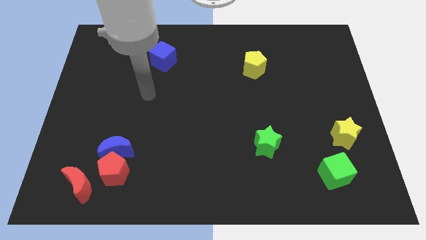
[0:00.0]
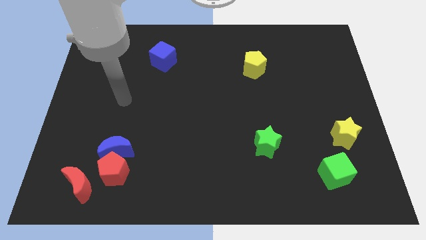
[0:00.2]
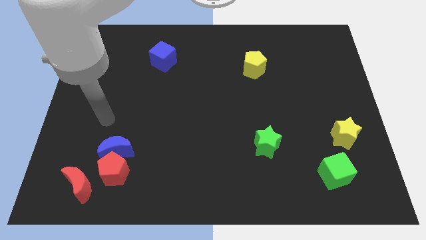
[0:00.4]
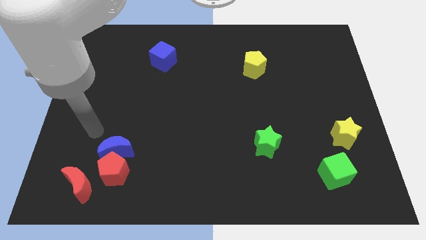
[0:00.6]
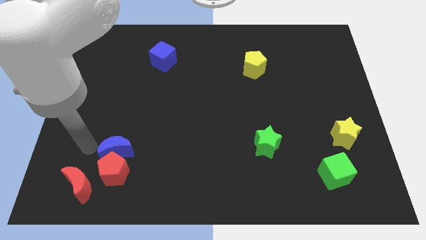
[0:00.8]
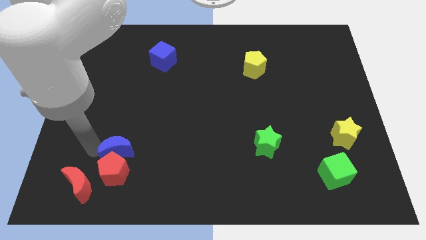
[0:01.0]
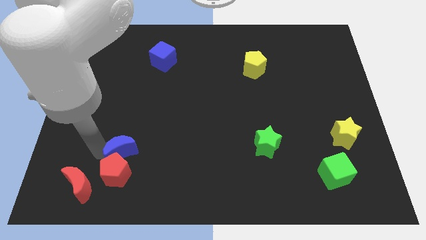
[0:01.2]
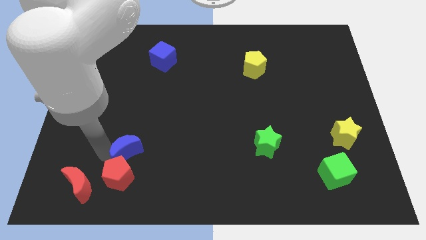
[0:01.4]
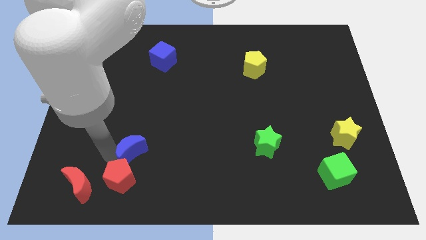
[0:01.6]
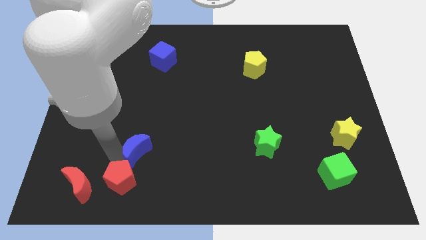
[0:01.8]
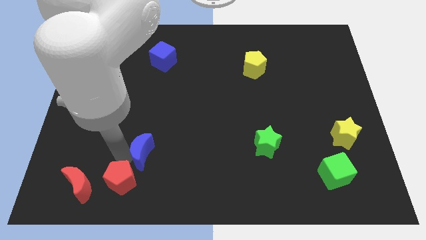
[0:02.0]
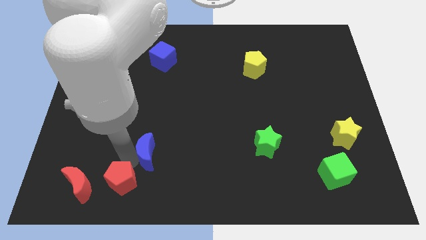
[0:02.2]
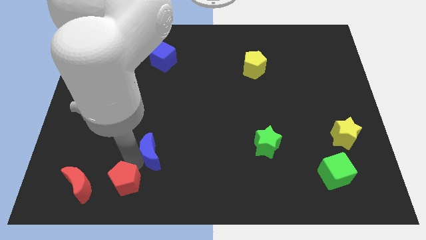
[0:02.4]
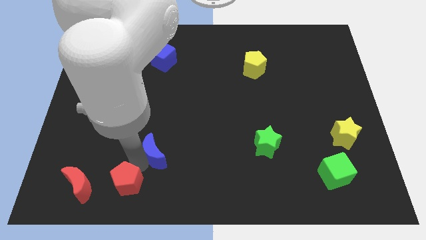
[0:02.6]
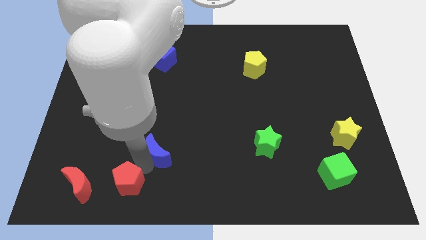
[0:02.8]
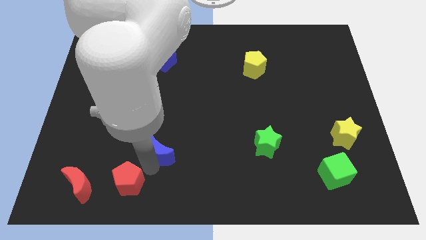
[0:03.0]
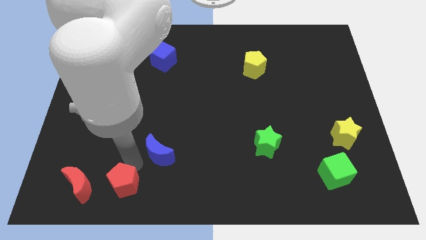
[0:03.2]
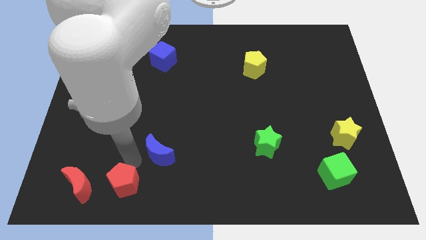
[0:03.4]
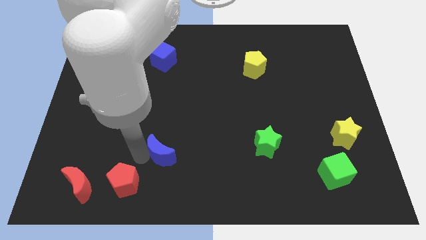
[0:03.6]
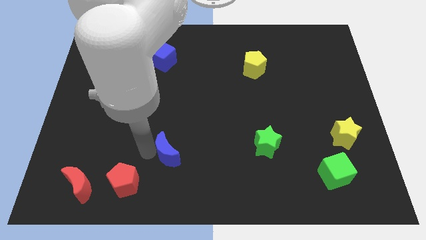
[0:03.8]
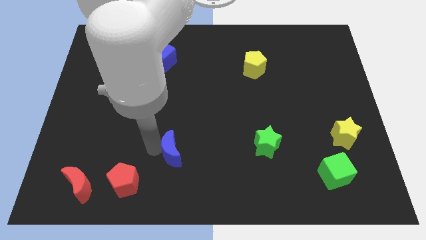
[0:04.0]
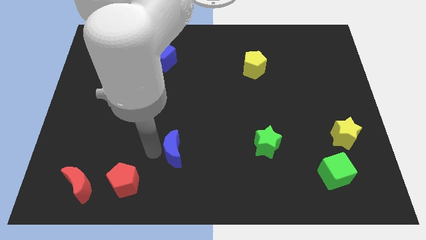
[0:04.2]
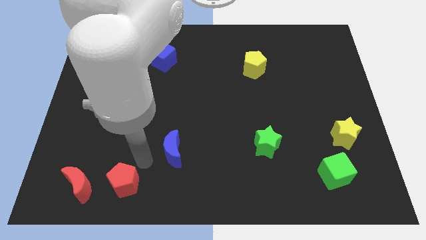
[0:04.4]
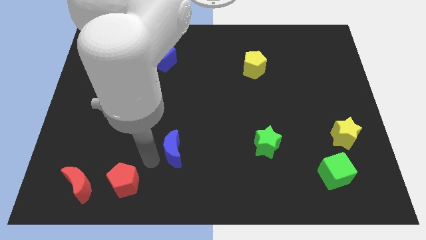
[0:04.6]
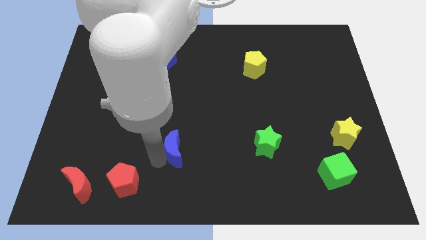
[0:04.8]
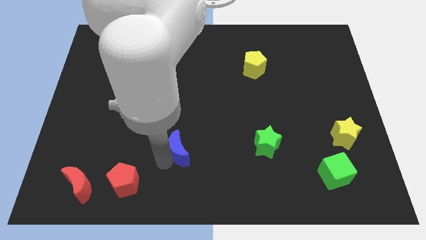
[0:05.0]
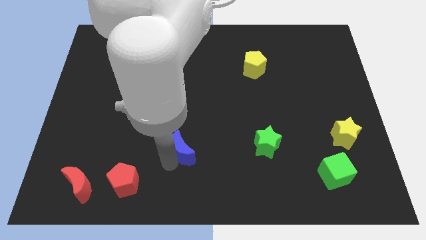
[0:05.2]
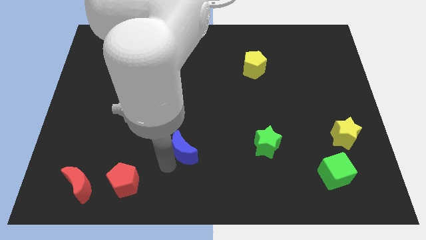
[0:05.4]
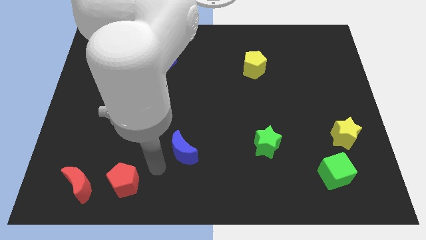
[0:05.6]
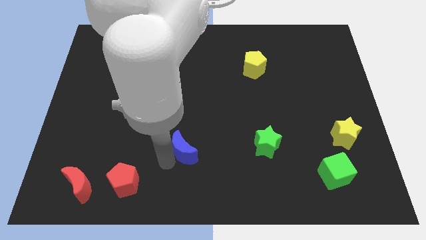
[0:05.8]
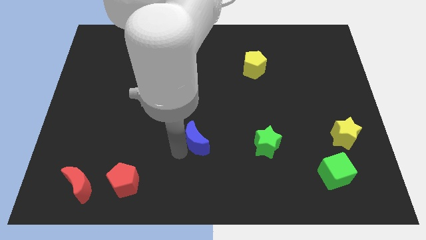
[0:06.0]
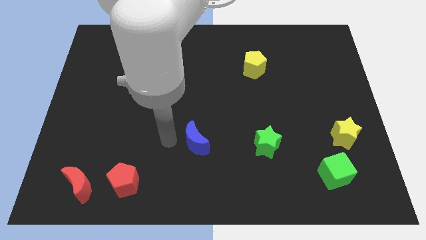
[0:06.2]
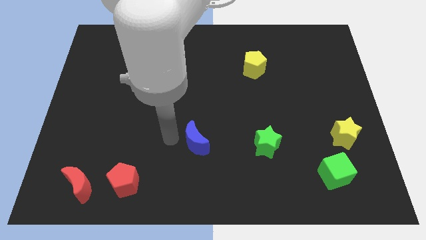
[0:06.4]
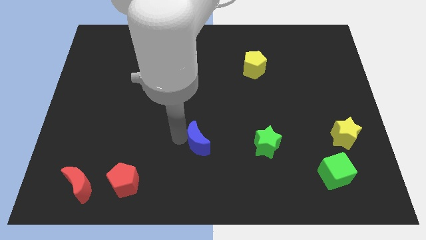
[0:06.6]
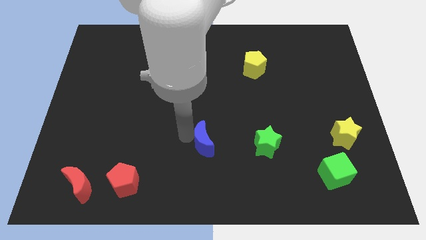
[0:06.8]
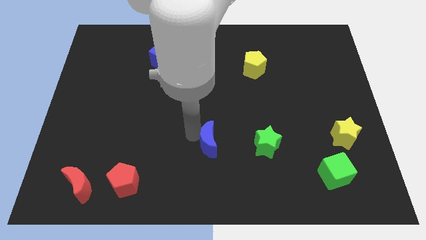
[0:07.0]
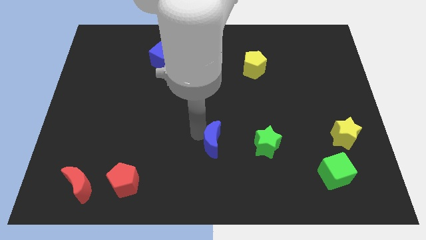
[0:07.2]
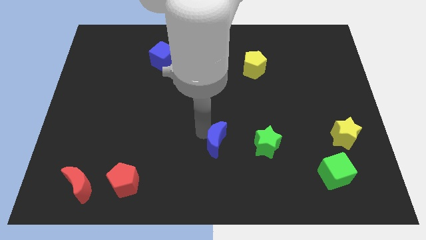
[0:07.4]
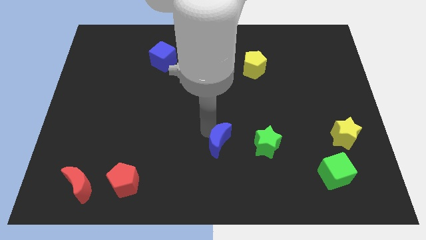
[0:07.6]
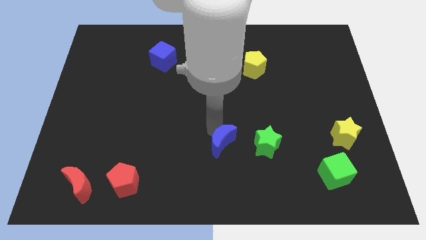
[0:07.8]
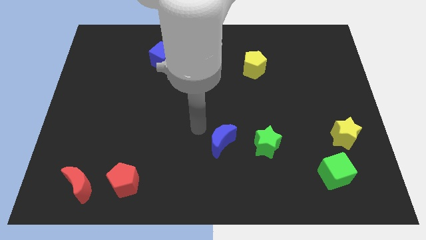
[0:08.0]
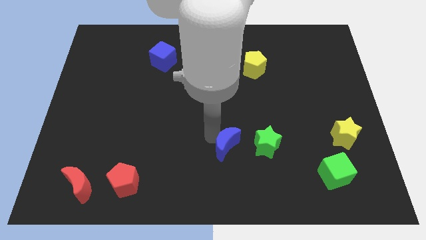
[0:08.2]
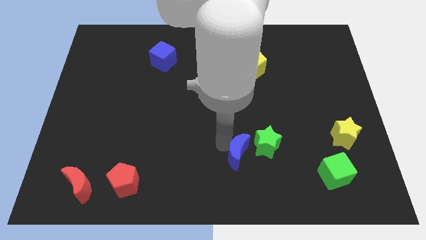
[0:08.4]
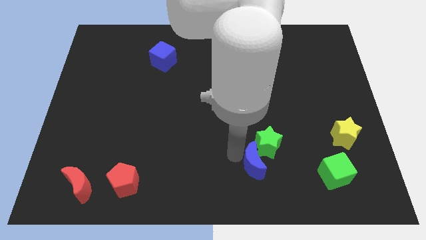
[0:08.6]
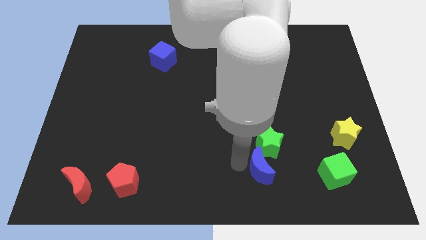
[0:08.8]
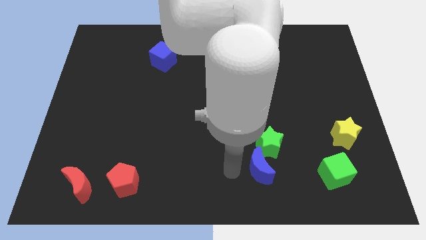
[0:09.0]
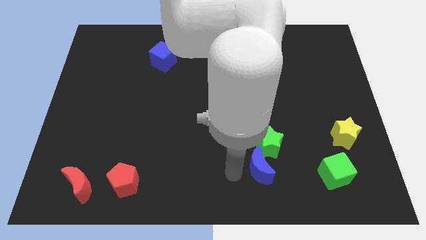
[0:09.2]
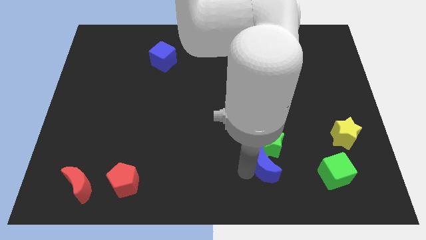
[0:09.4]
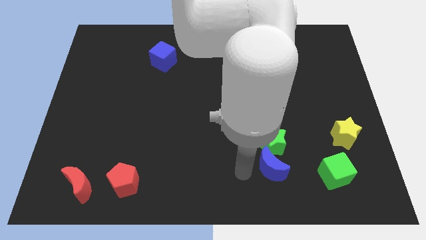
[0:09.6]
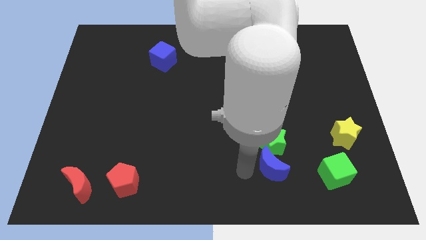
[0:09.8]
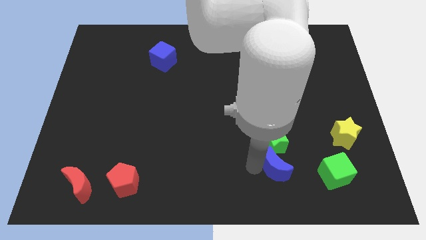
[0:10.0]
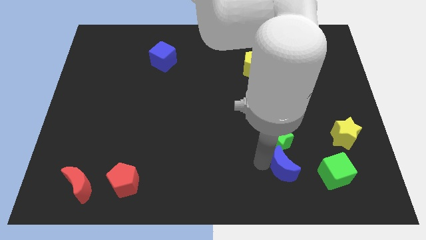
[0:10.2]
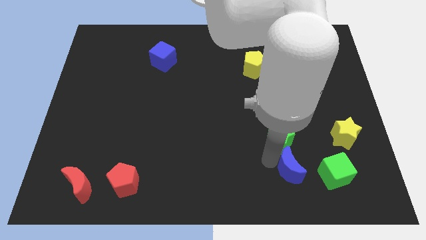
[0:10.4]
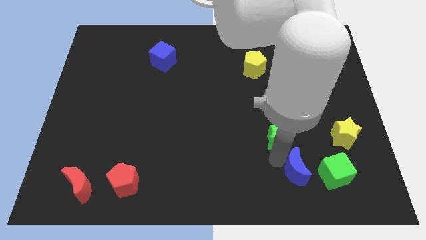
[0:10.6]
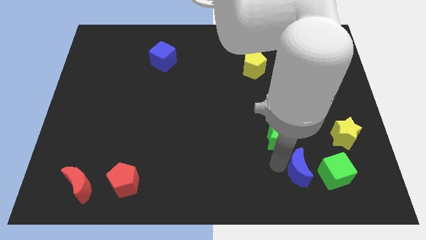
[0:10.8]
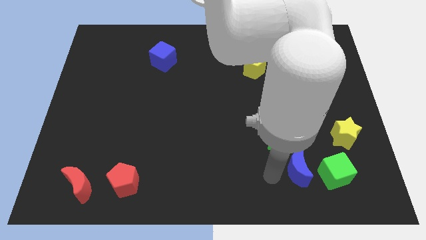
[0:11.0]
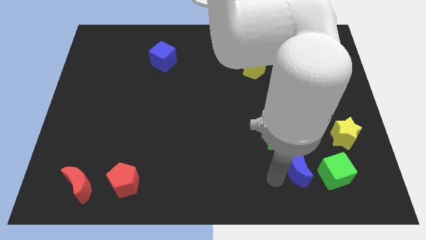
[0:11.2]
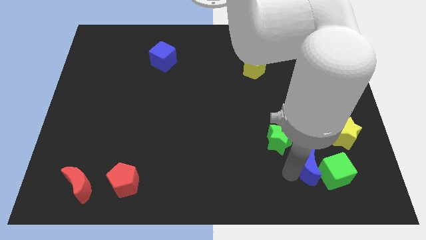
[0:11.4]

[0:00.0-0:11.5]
put the blue moon close to the green cube

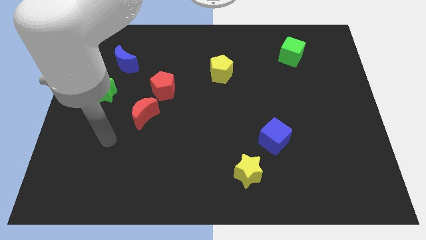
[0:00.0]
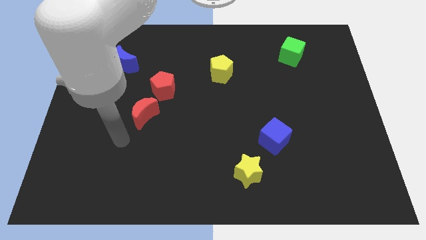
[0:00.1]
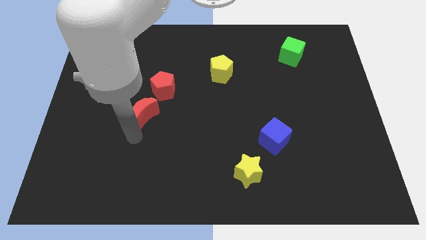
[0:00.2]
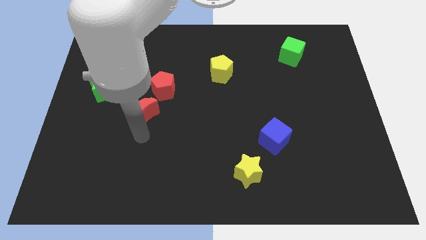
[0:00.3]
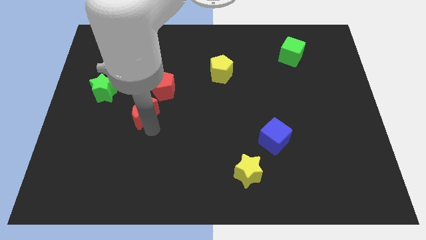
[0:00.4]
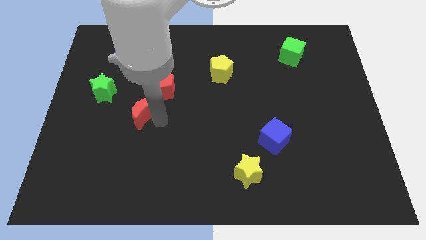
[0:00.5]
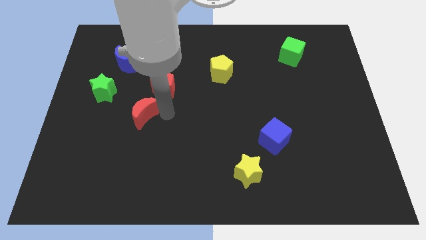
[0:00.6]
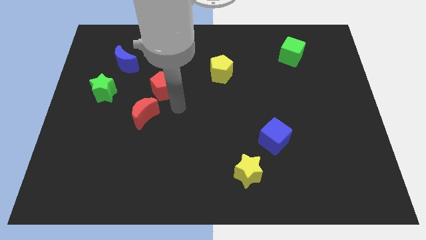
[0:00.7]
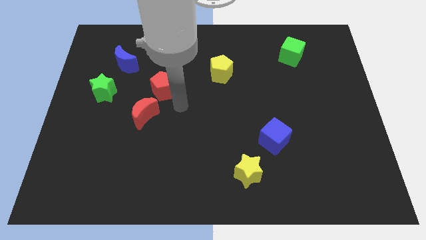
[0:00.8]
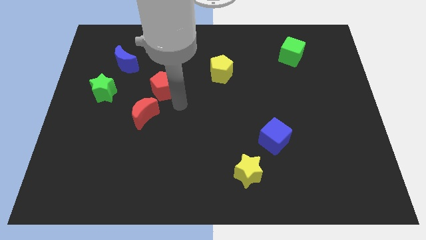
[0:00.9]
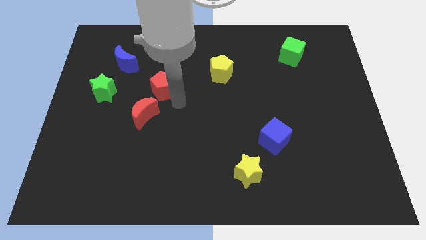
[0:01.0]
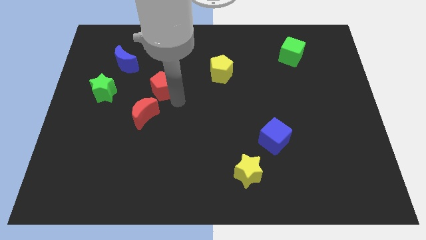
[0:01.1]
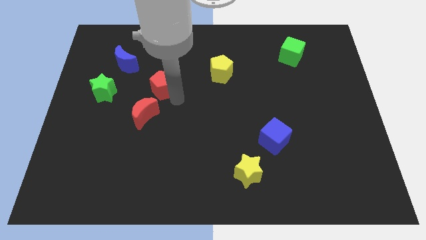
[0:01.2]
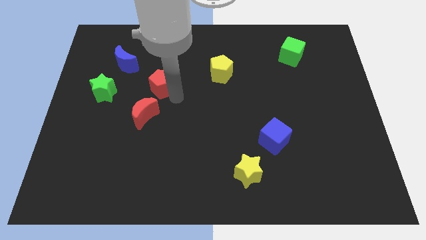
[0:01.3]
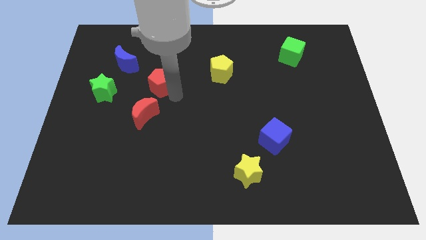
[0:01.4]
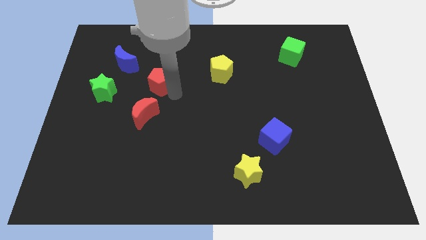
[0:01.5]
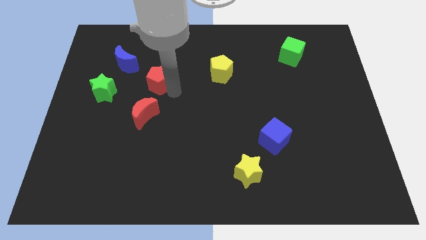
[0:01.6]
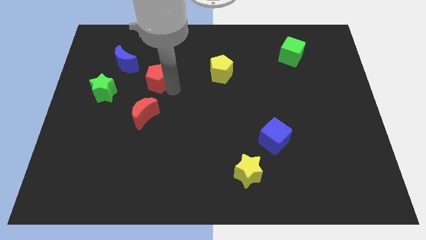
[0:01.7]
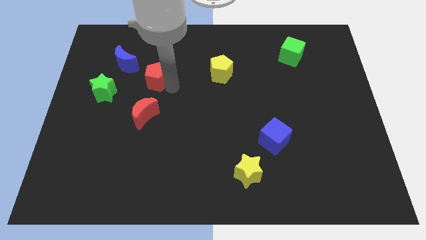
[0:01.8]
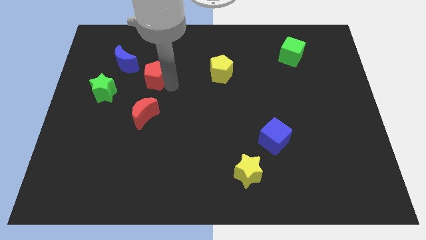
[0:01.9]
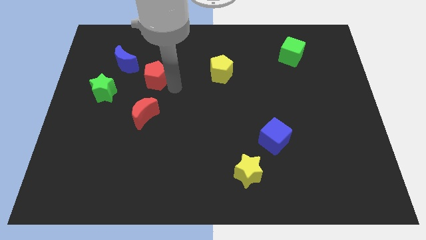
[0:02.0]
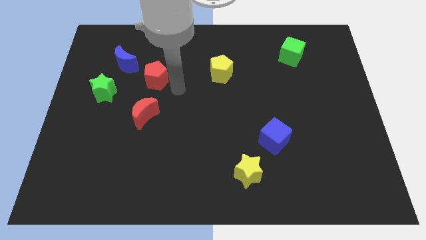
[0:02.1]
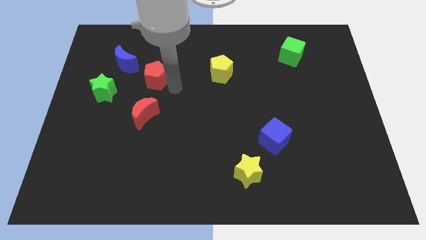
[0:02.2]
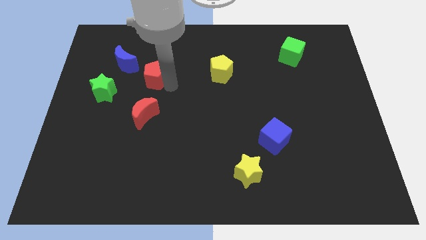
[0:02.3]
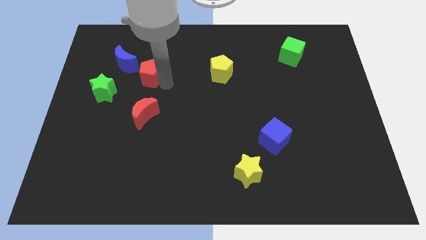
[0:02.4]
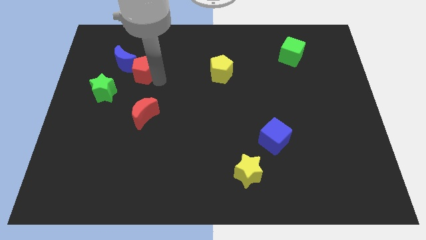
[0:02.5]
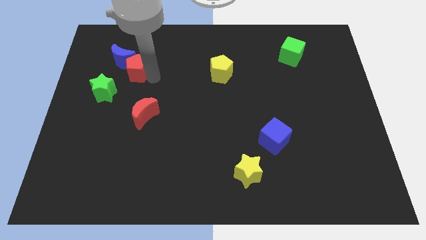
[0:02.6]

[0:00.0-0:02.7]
put the red pentagon next to the blue moon
